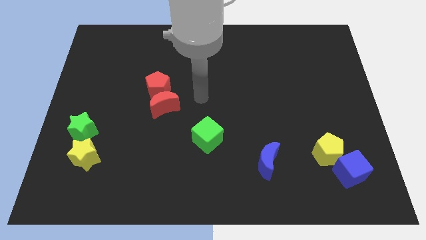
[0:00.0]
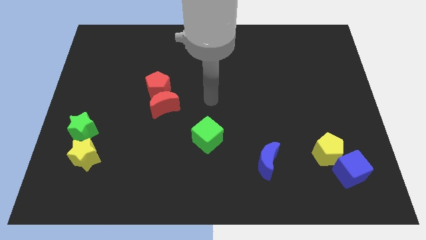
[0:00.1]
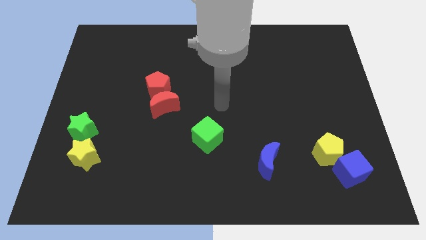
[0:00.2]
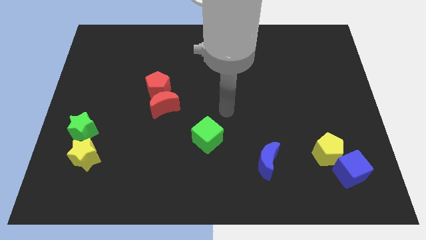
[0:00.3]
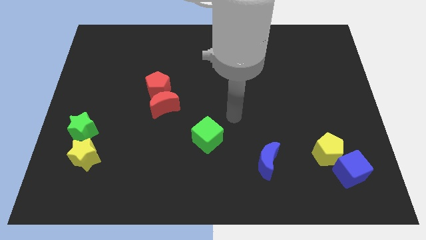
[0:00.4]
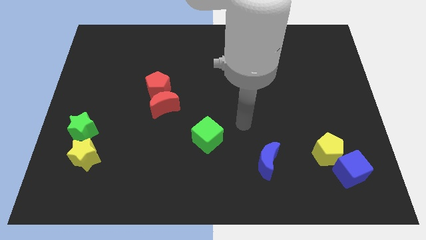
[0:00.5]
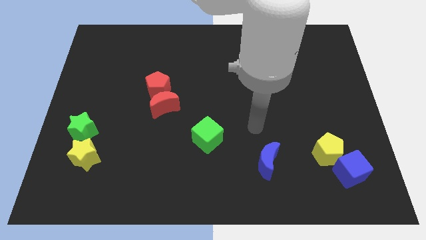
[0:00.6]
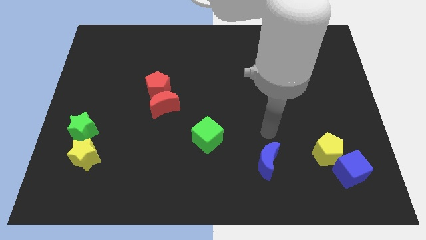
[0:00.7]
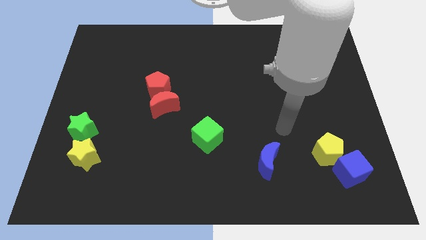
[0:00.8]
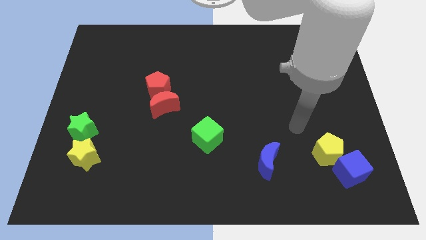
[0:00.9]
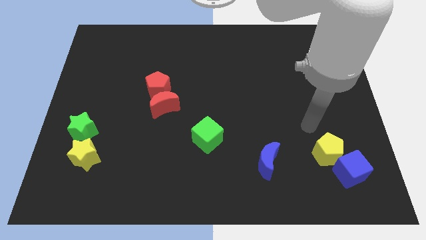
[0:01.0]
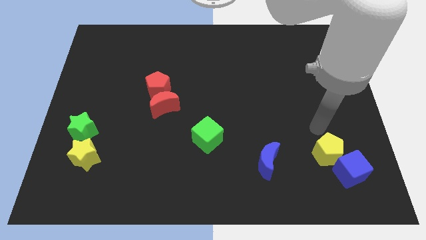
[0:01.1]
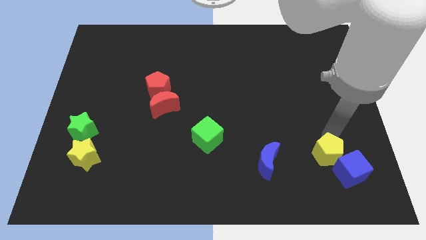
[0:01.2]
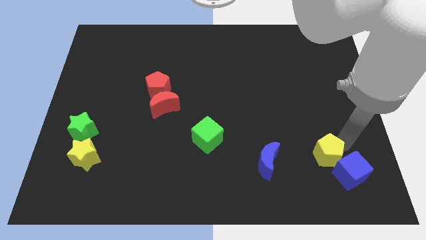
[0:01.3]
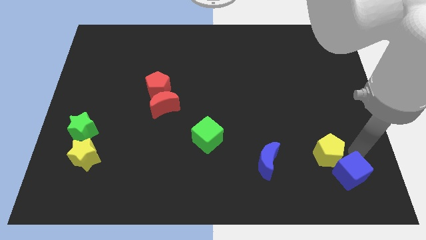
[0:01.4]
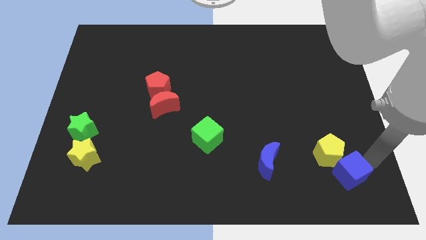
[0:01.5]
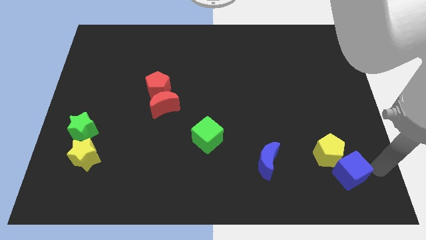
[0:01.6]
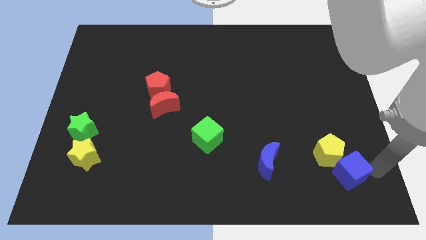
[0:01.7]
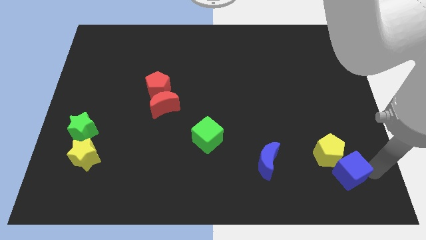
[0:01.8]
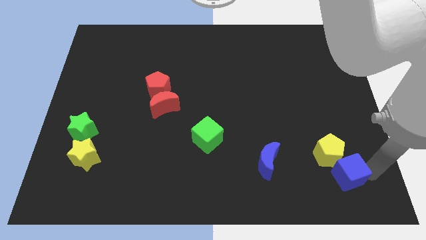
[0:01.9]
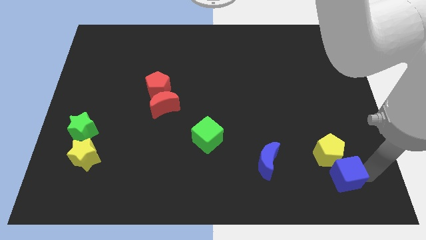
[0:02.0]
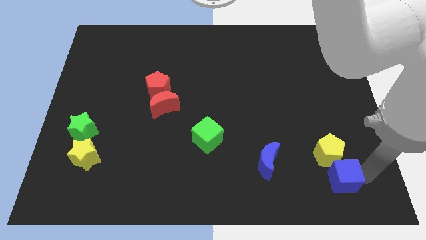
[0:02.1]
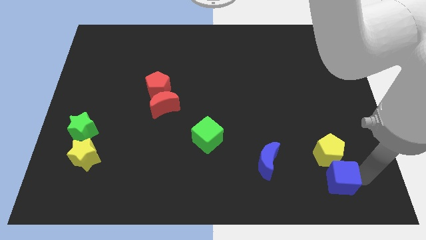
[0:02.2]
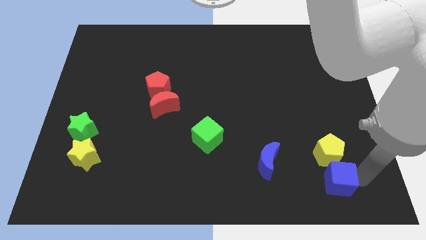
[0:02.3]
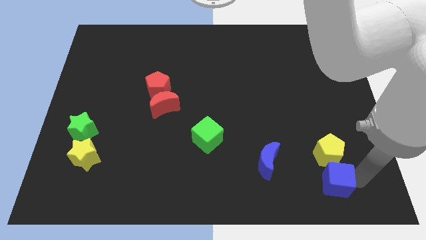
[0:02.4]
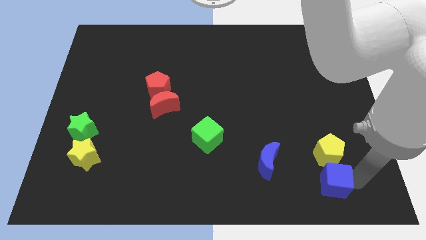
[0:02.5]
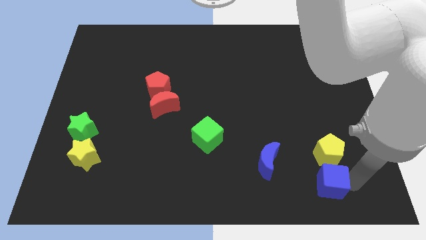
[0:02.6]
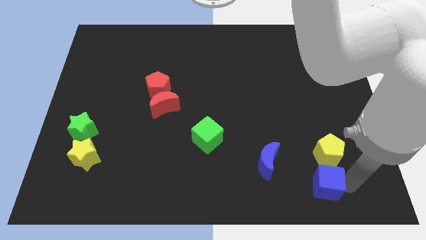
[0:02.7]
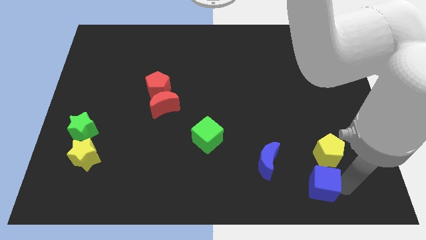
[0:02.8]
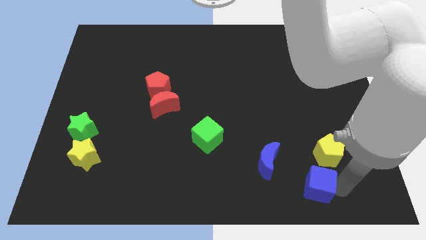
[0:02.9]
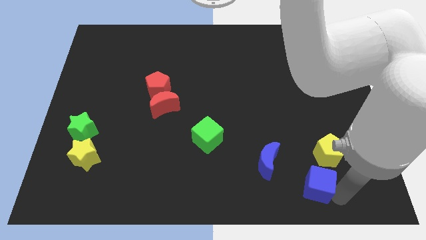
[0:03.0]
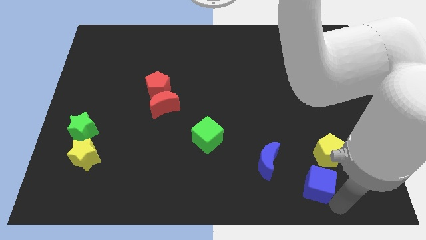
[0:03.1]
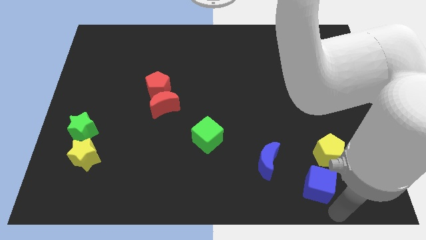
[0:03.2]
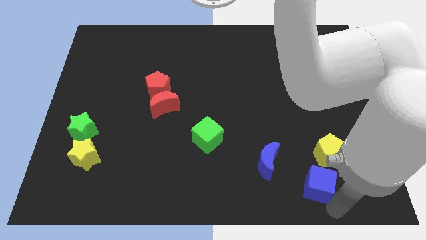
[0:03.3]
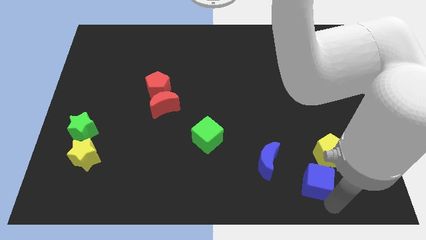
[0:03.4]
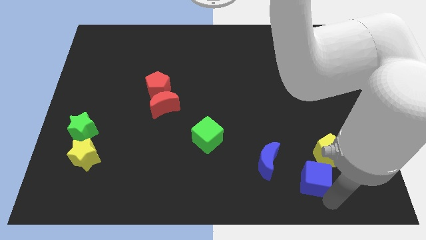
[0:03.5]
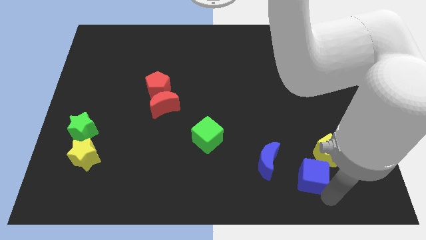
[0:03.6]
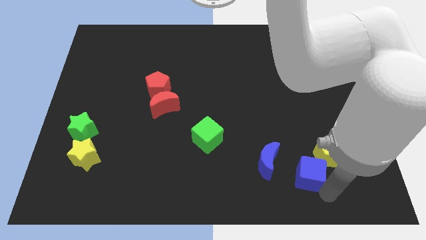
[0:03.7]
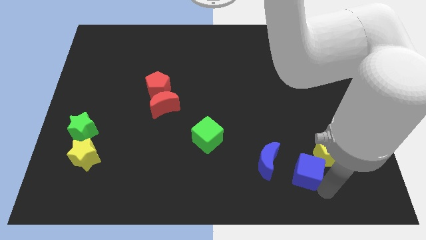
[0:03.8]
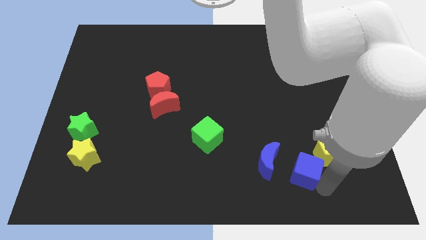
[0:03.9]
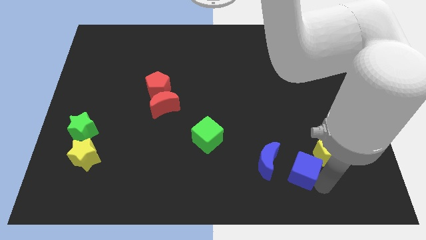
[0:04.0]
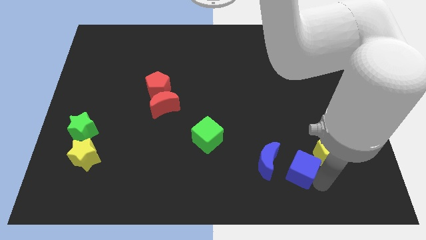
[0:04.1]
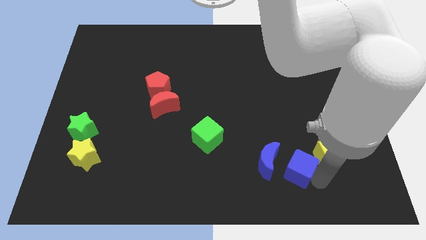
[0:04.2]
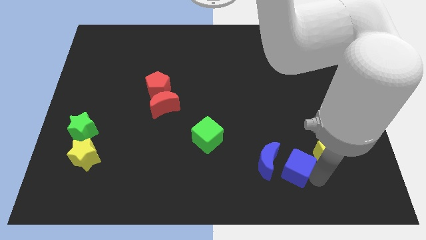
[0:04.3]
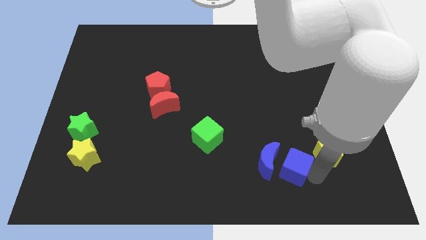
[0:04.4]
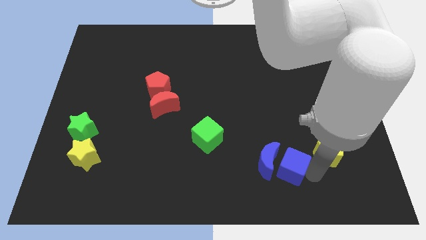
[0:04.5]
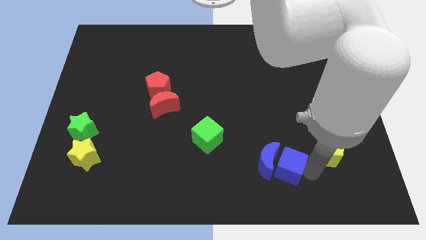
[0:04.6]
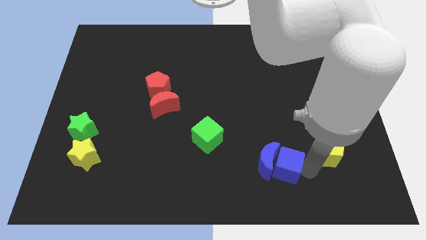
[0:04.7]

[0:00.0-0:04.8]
slightly push the blue cube upwards and to the left diagonally

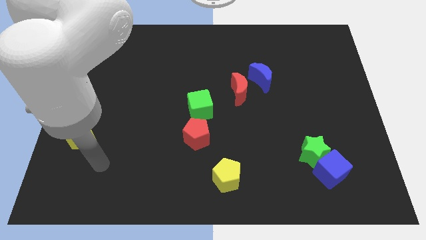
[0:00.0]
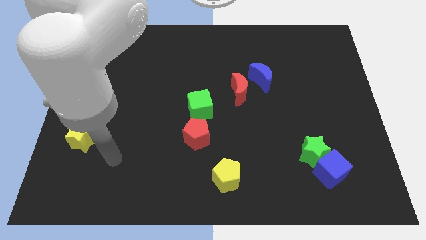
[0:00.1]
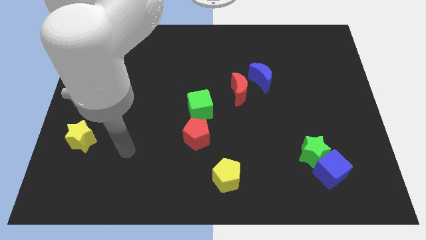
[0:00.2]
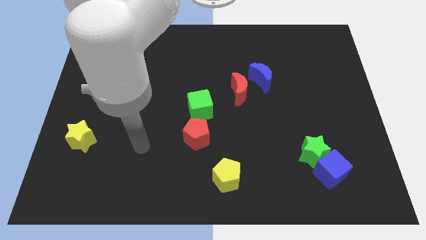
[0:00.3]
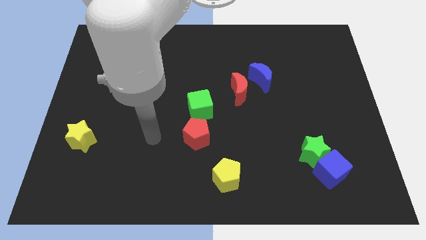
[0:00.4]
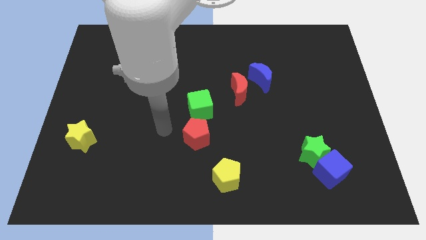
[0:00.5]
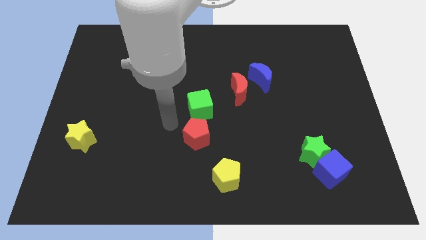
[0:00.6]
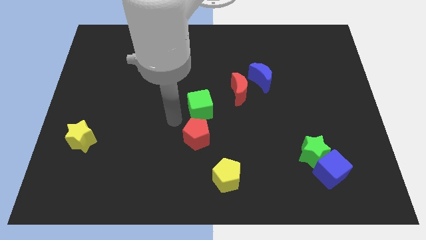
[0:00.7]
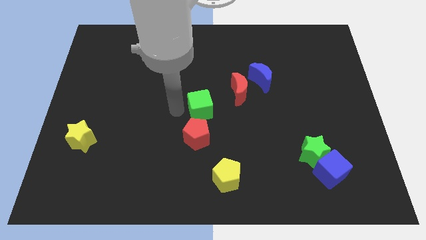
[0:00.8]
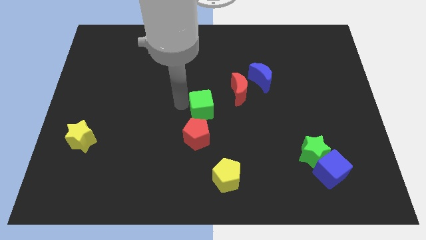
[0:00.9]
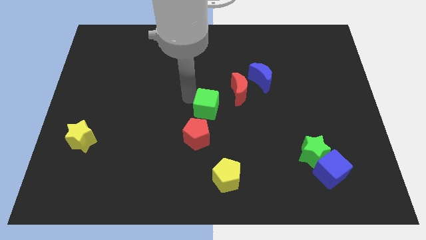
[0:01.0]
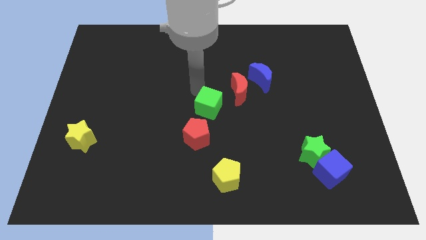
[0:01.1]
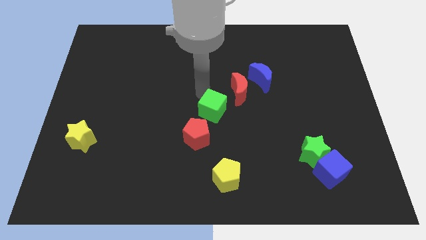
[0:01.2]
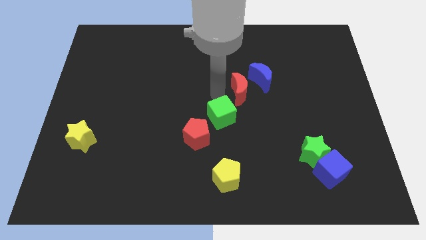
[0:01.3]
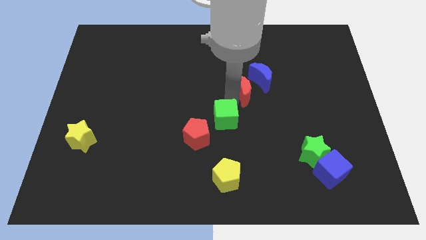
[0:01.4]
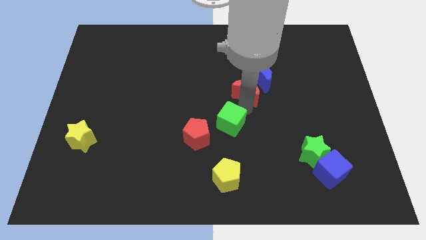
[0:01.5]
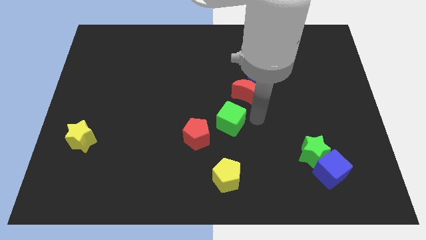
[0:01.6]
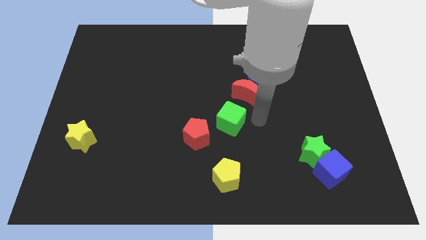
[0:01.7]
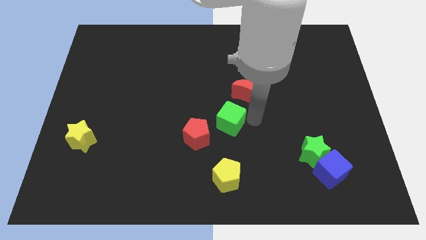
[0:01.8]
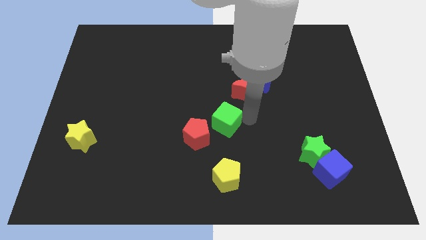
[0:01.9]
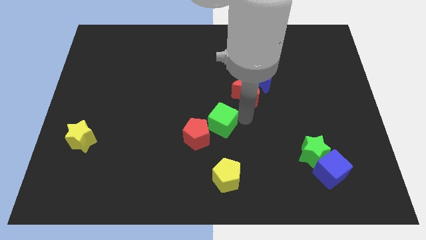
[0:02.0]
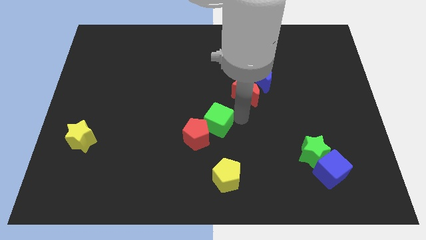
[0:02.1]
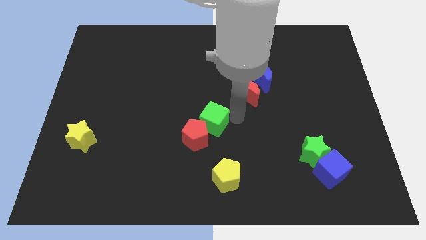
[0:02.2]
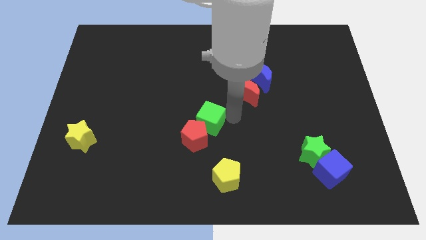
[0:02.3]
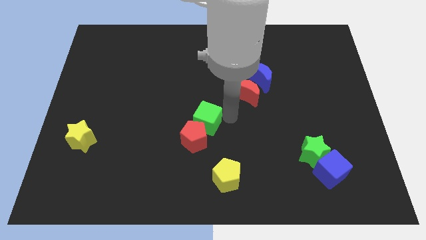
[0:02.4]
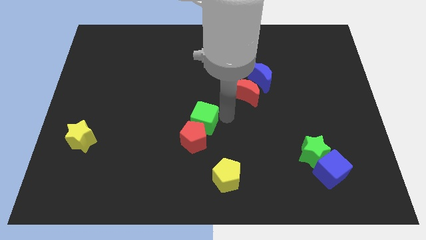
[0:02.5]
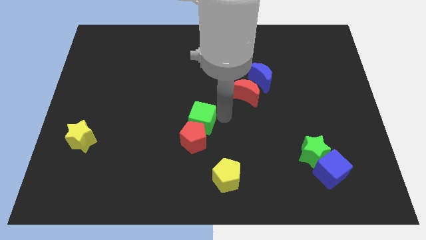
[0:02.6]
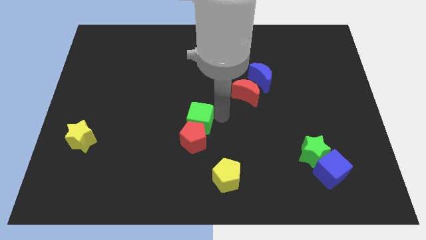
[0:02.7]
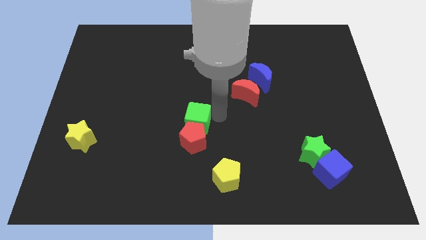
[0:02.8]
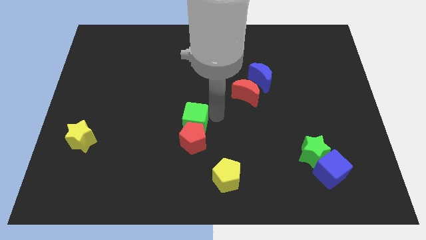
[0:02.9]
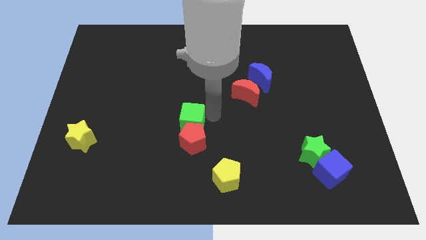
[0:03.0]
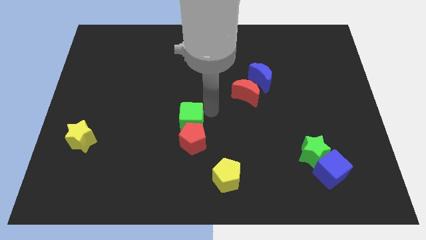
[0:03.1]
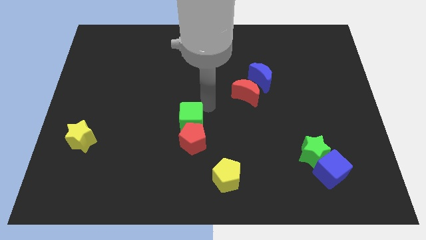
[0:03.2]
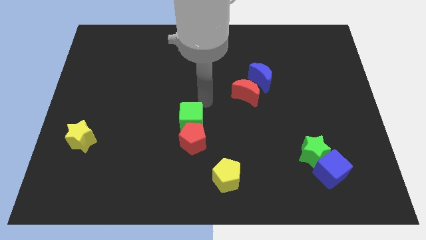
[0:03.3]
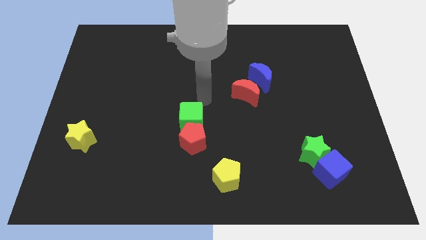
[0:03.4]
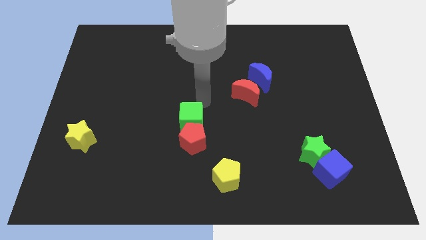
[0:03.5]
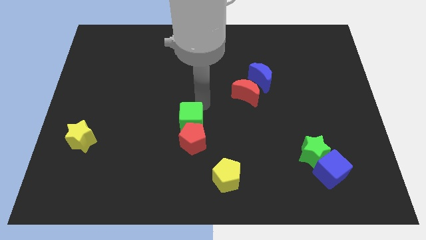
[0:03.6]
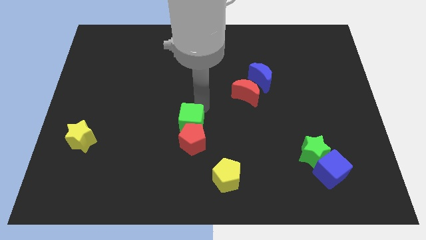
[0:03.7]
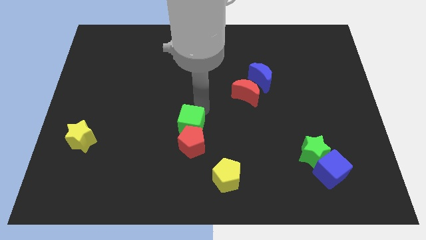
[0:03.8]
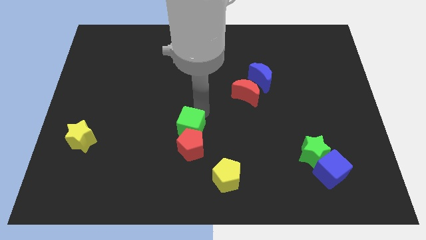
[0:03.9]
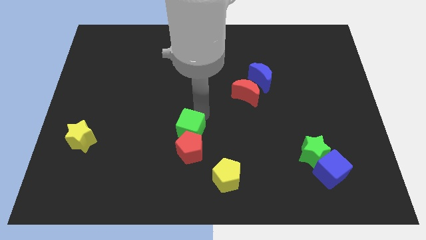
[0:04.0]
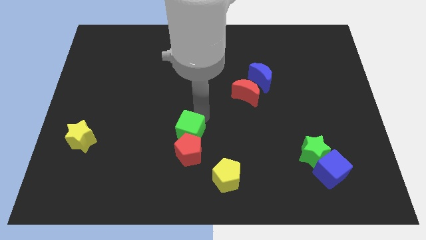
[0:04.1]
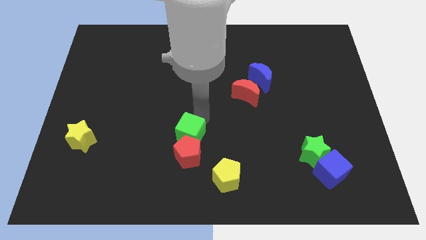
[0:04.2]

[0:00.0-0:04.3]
slide the green cube down a bit
